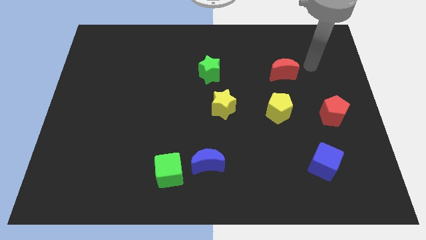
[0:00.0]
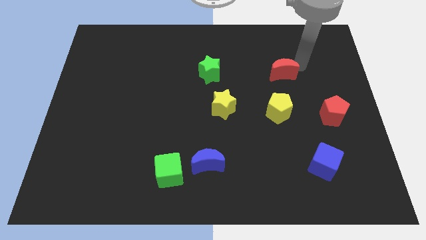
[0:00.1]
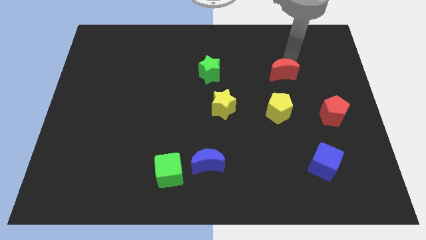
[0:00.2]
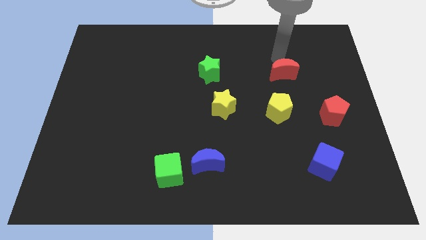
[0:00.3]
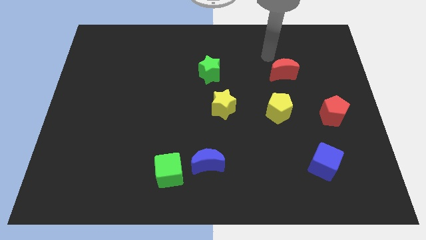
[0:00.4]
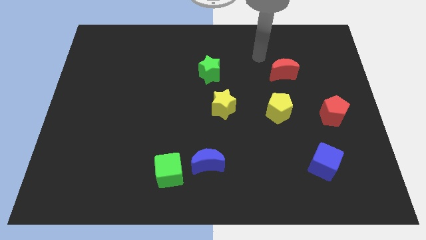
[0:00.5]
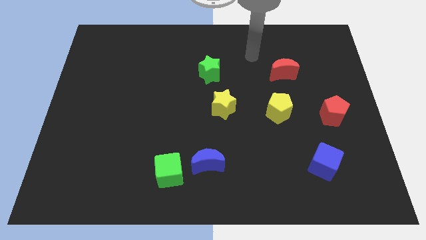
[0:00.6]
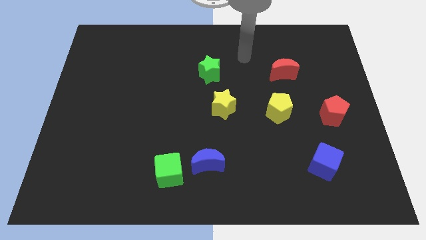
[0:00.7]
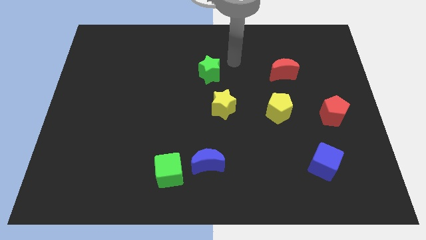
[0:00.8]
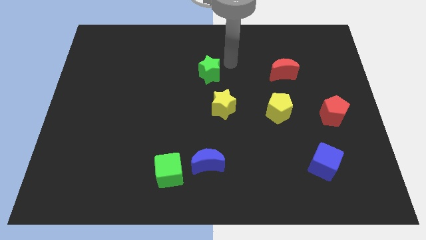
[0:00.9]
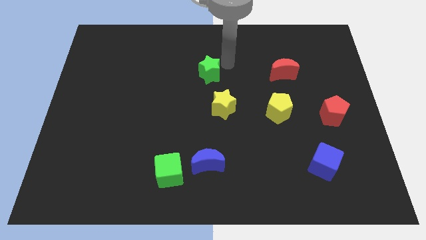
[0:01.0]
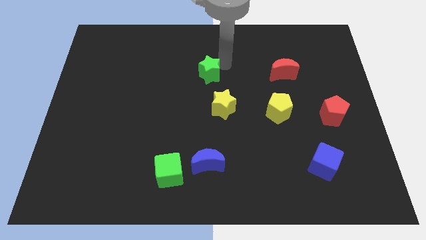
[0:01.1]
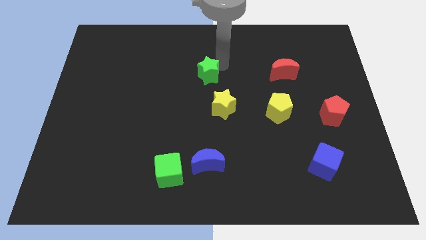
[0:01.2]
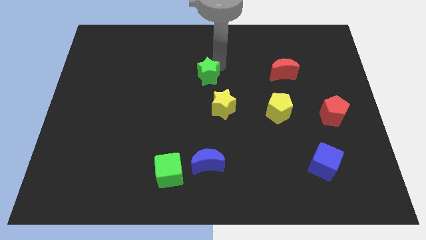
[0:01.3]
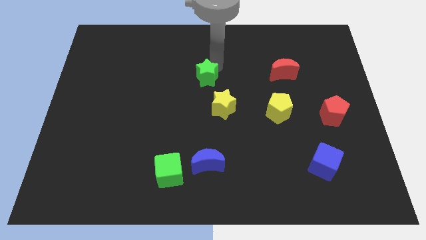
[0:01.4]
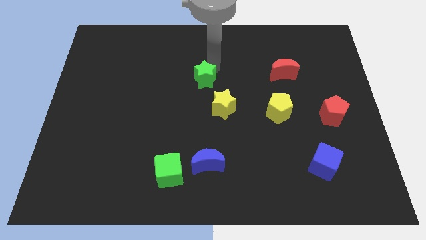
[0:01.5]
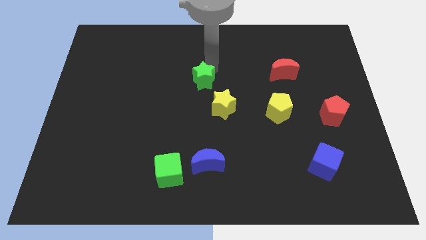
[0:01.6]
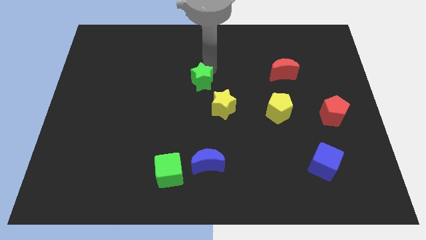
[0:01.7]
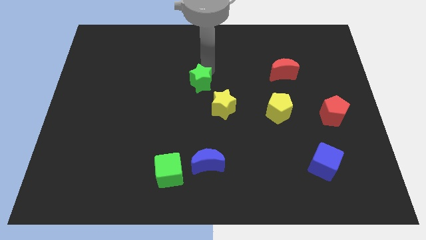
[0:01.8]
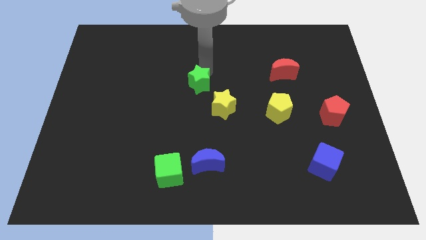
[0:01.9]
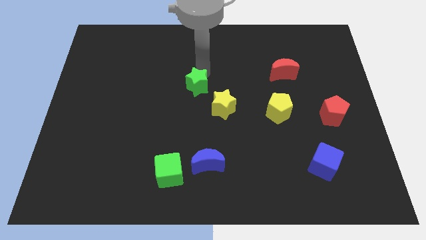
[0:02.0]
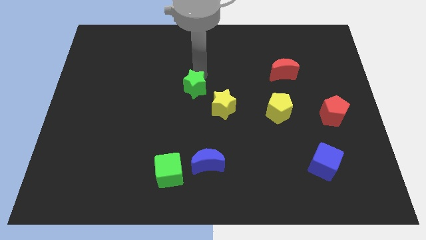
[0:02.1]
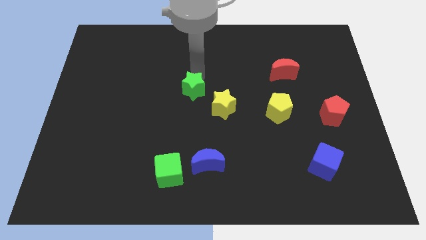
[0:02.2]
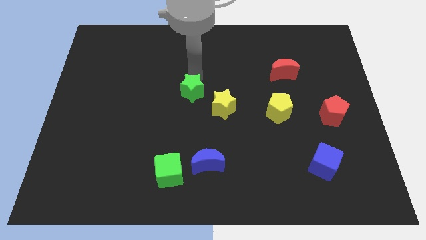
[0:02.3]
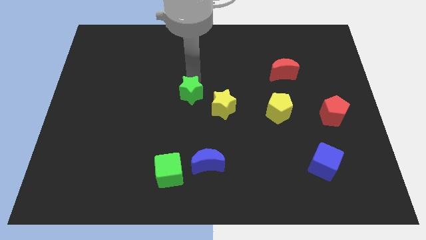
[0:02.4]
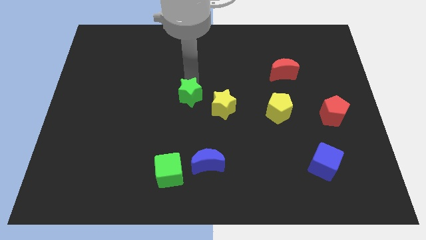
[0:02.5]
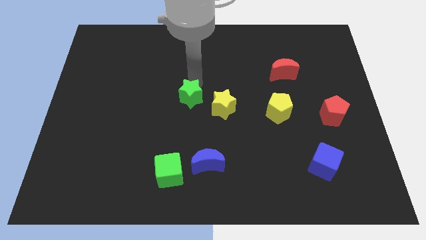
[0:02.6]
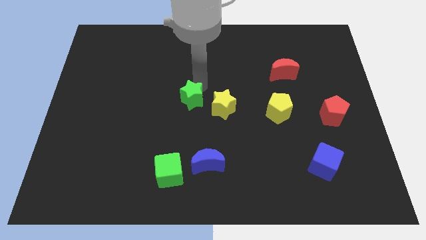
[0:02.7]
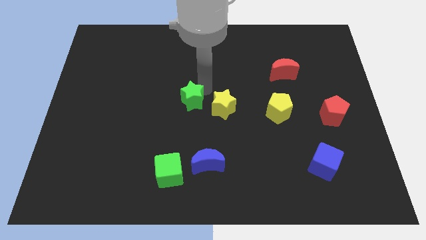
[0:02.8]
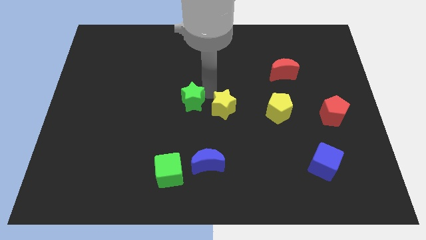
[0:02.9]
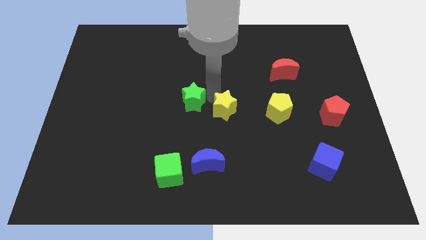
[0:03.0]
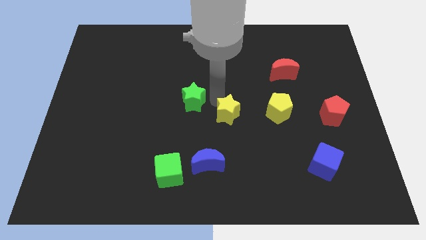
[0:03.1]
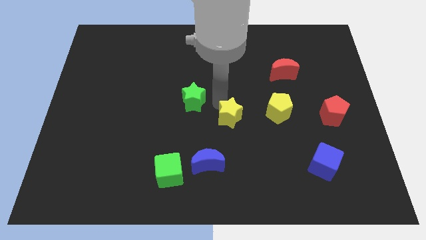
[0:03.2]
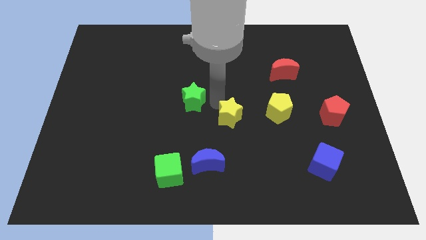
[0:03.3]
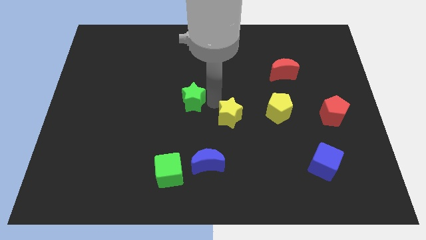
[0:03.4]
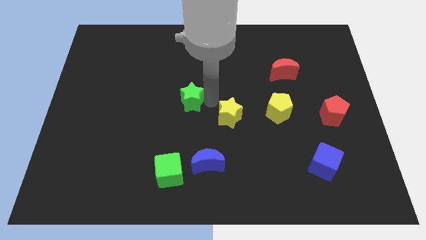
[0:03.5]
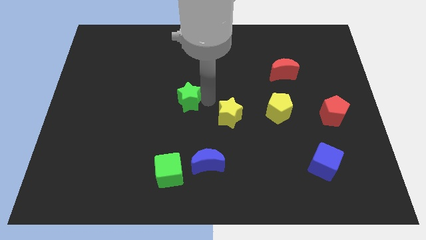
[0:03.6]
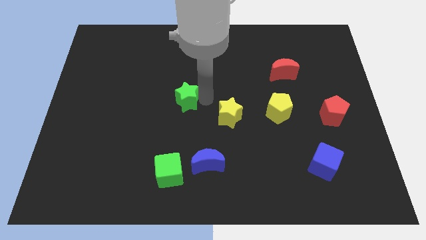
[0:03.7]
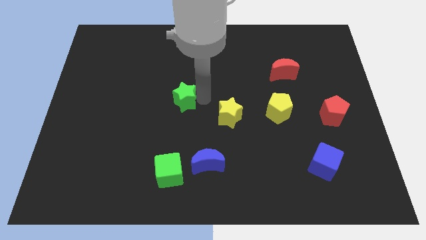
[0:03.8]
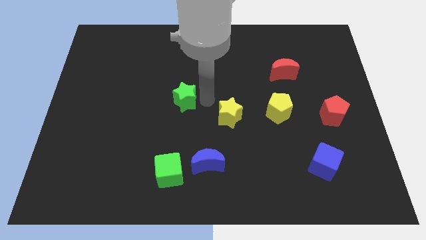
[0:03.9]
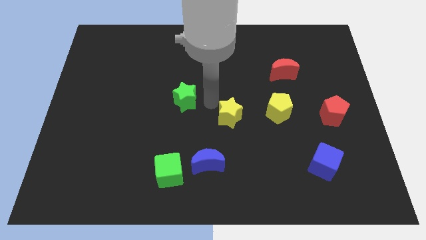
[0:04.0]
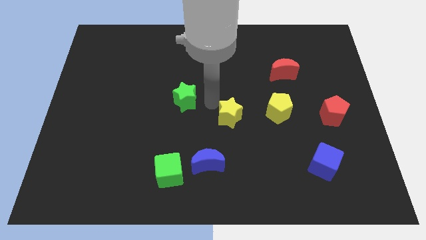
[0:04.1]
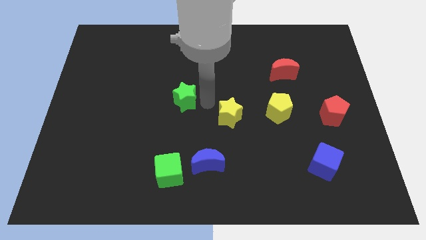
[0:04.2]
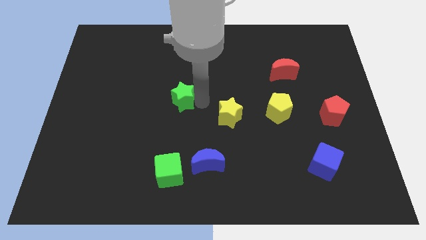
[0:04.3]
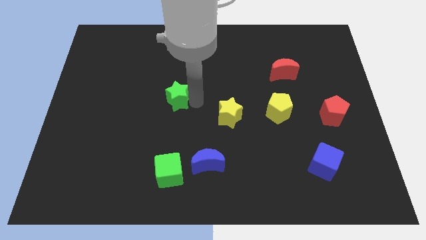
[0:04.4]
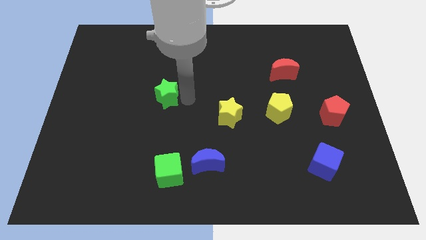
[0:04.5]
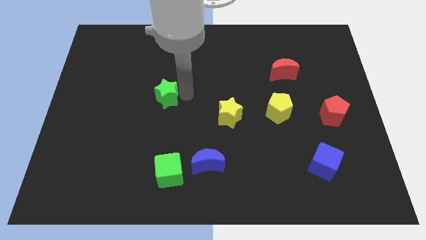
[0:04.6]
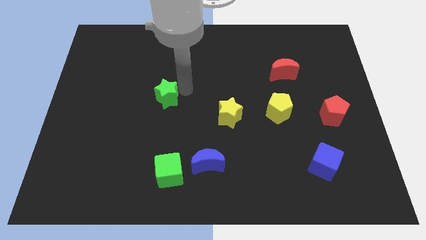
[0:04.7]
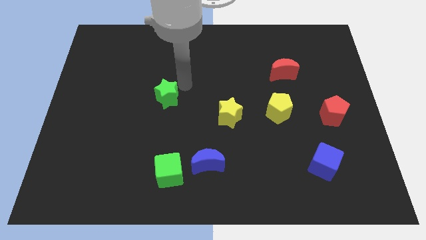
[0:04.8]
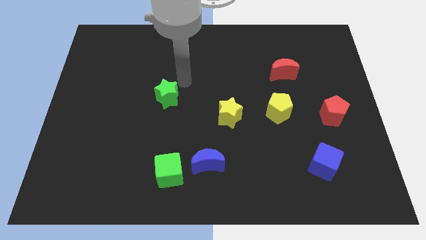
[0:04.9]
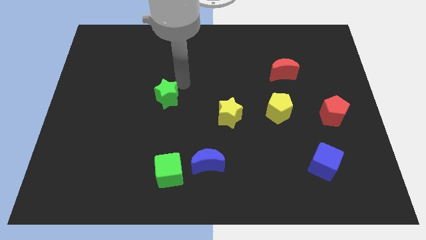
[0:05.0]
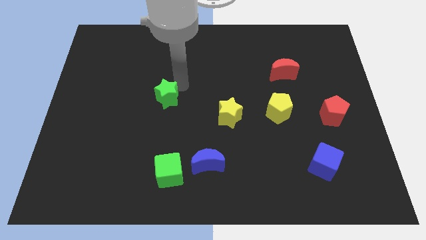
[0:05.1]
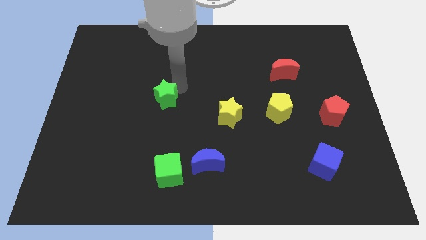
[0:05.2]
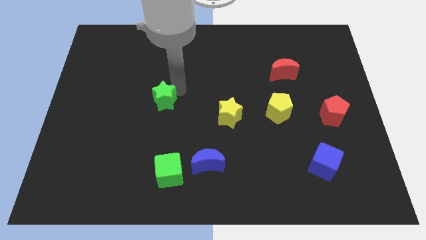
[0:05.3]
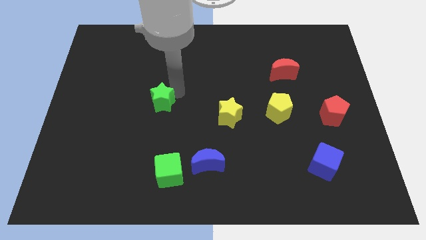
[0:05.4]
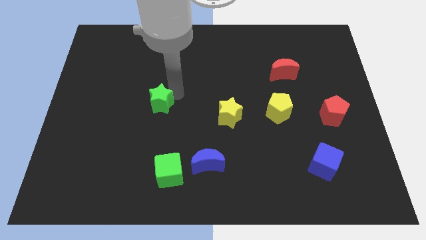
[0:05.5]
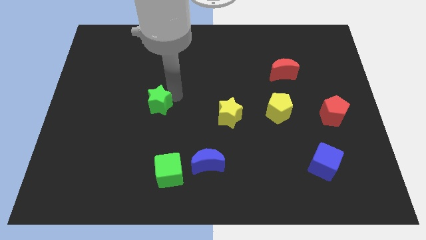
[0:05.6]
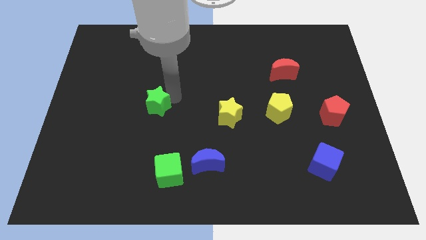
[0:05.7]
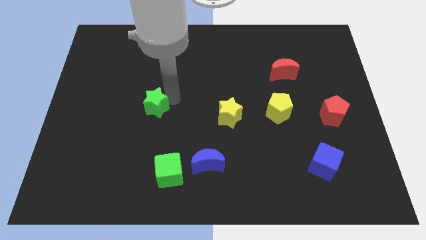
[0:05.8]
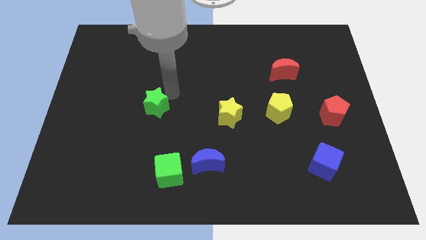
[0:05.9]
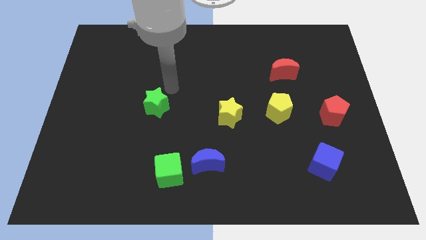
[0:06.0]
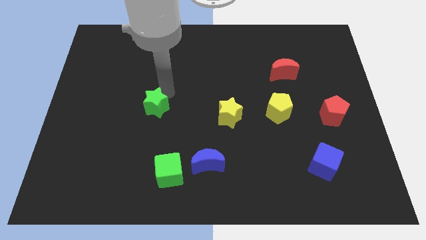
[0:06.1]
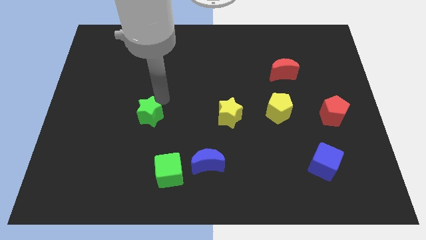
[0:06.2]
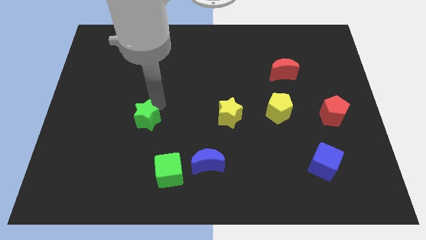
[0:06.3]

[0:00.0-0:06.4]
slide the green star downwards and then to the left

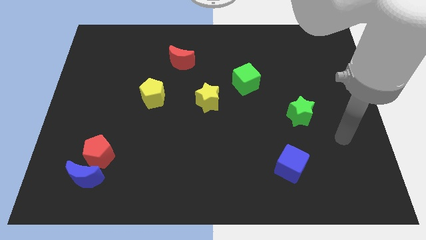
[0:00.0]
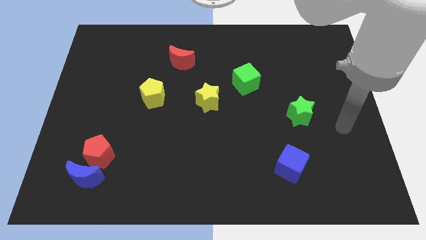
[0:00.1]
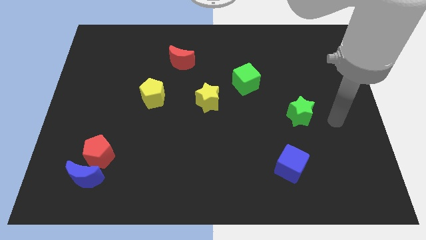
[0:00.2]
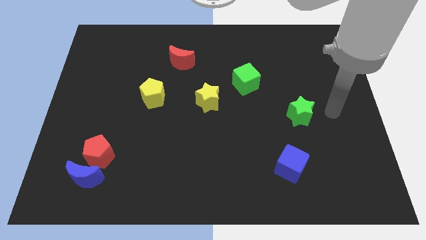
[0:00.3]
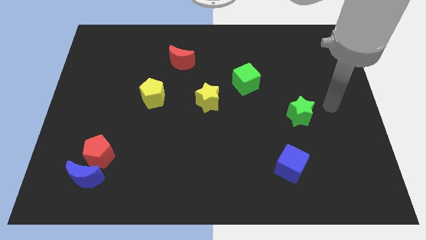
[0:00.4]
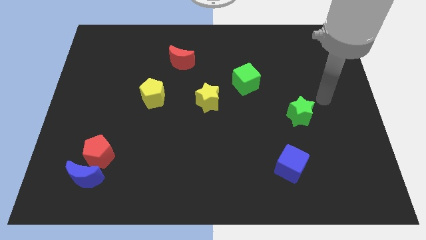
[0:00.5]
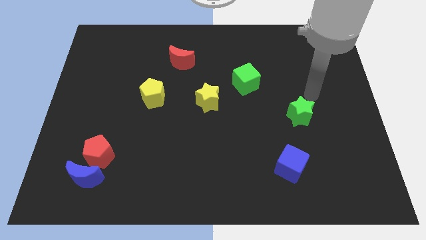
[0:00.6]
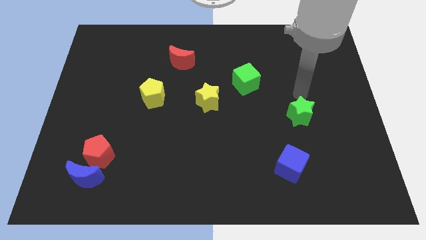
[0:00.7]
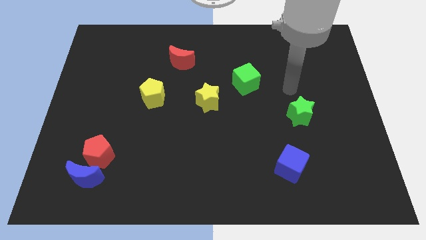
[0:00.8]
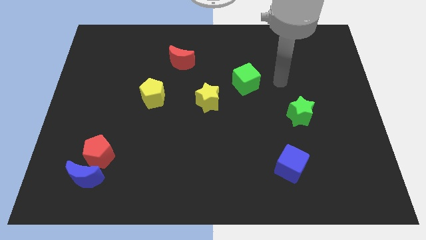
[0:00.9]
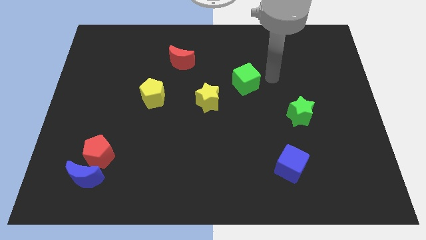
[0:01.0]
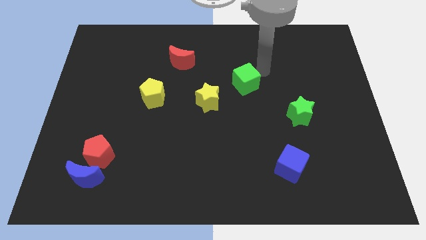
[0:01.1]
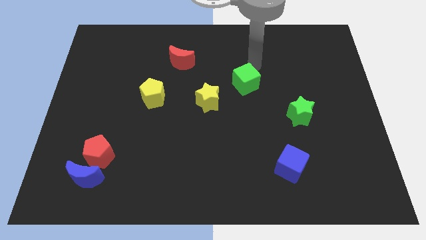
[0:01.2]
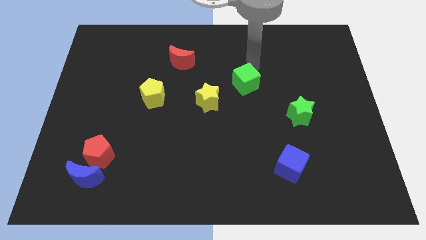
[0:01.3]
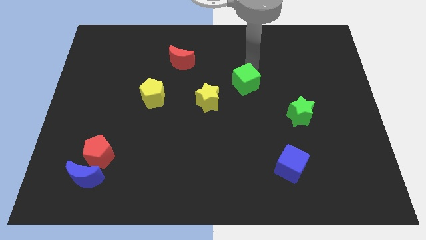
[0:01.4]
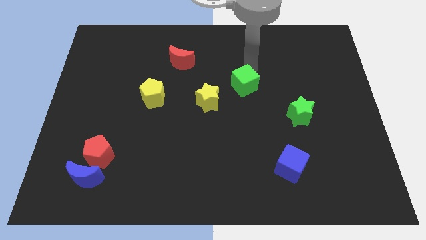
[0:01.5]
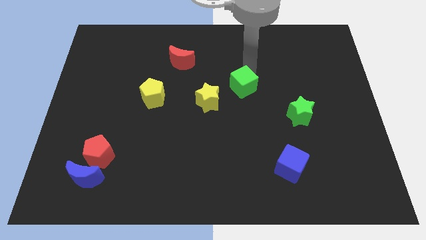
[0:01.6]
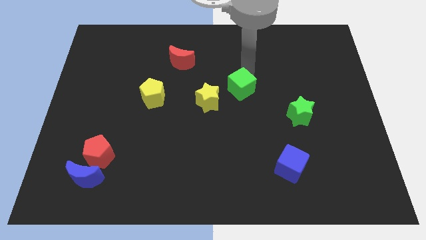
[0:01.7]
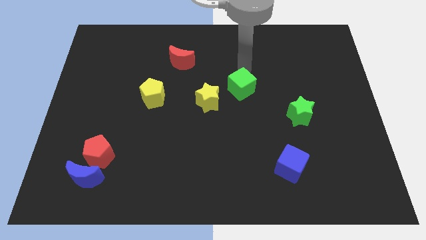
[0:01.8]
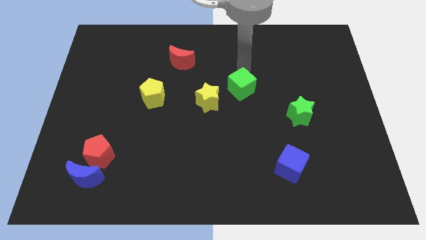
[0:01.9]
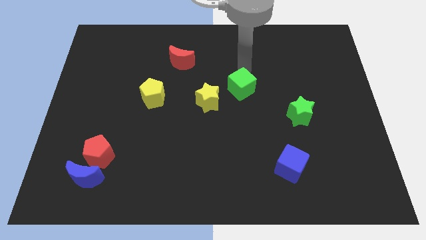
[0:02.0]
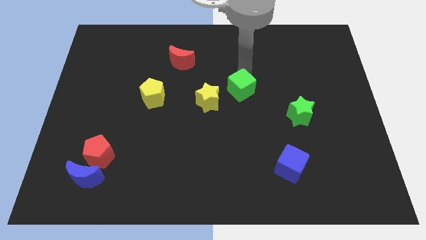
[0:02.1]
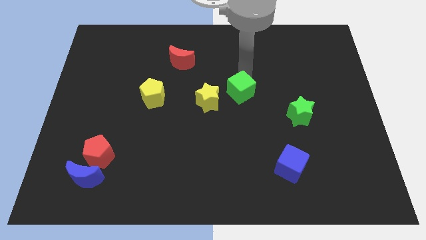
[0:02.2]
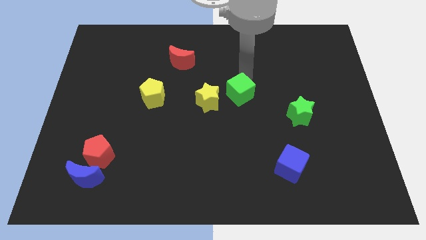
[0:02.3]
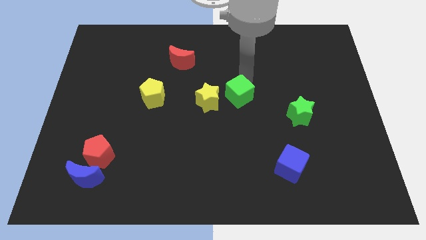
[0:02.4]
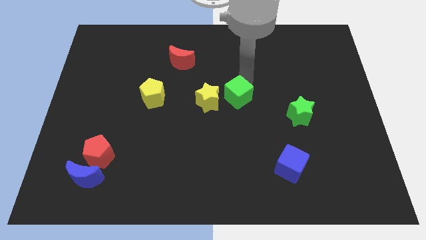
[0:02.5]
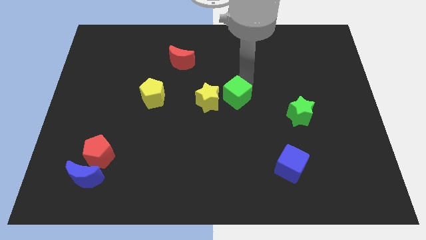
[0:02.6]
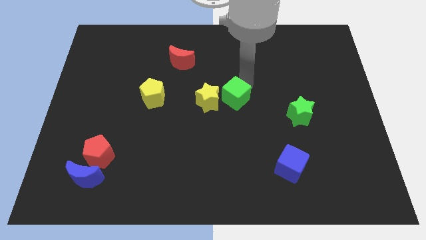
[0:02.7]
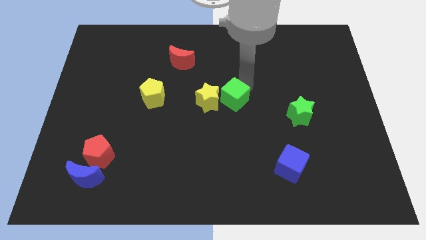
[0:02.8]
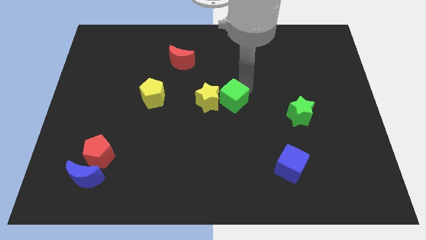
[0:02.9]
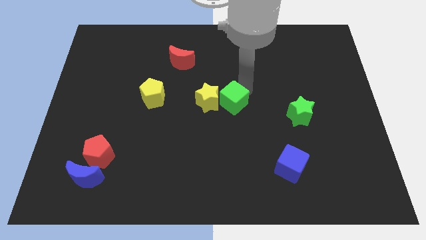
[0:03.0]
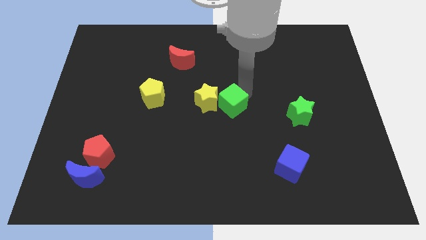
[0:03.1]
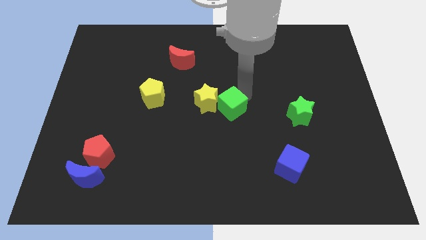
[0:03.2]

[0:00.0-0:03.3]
slightly slide the green cube down
